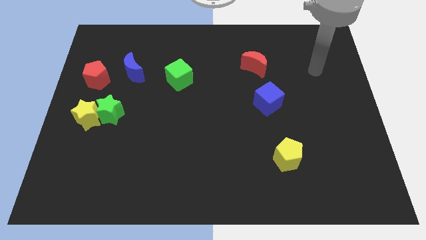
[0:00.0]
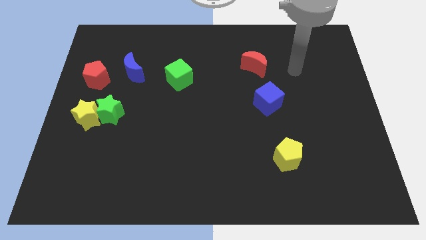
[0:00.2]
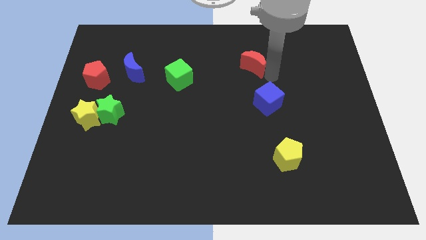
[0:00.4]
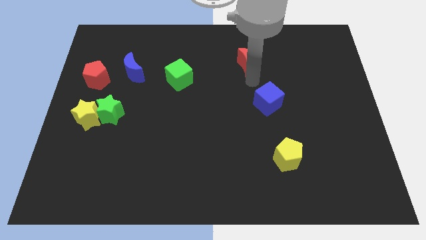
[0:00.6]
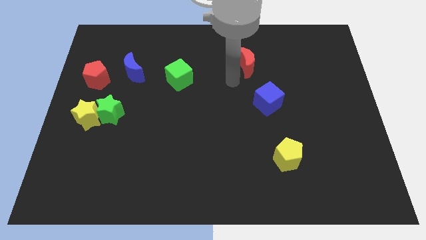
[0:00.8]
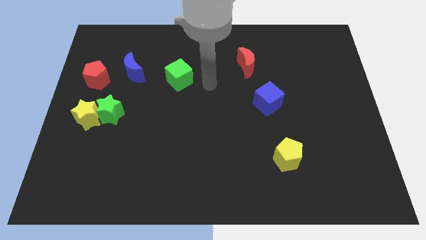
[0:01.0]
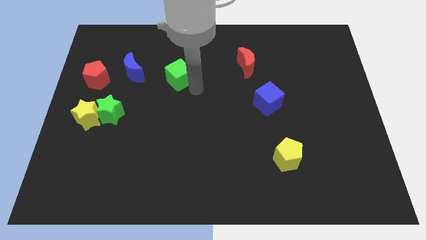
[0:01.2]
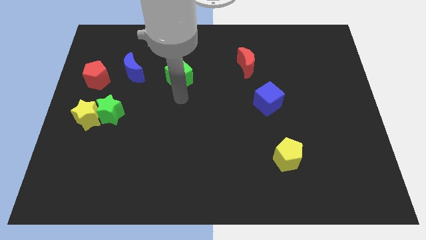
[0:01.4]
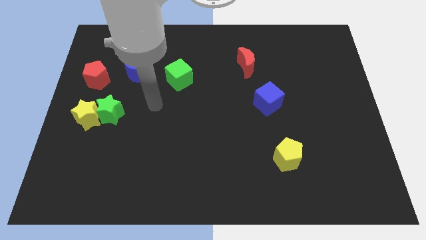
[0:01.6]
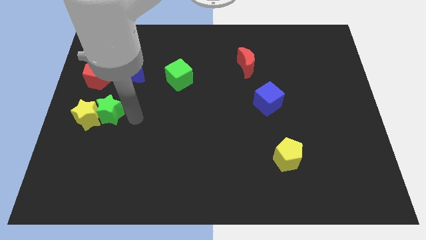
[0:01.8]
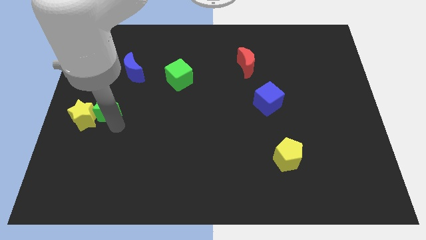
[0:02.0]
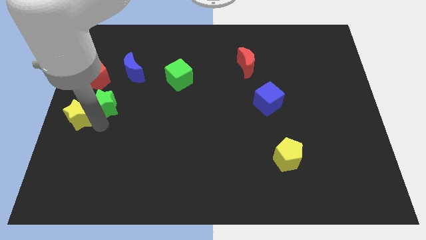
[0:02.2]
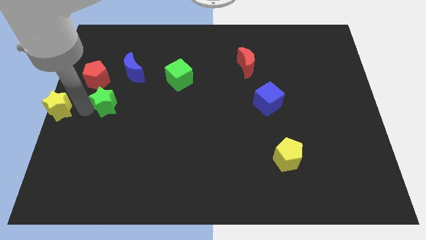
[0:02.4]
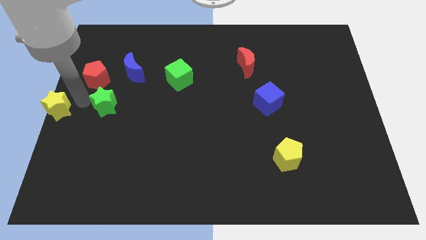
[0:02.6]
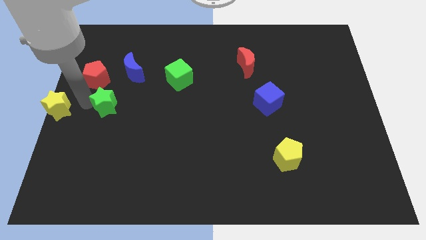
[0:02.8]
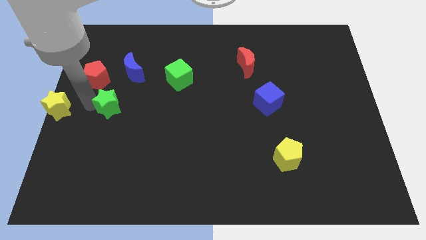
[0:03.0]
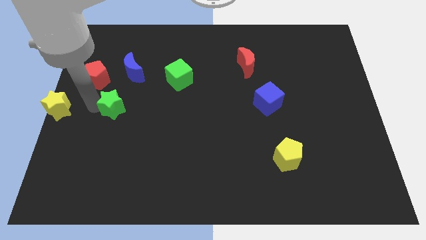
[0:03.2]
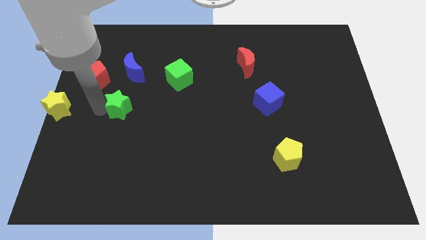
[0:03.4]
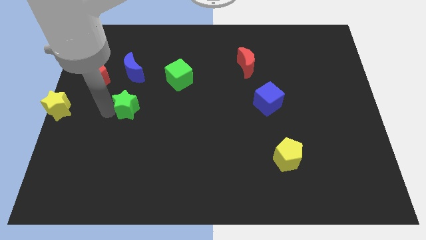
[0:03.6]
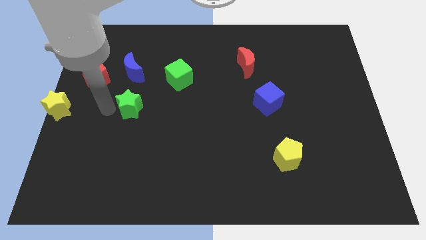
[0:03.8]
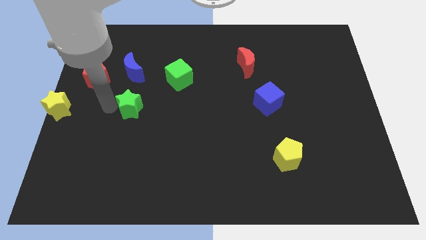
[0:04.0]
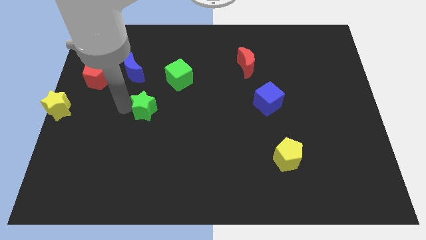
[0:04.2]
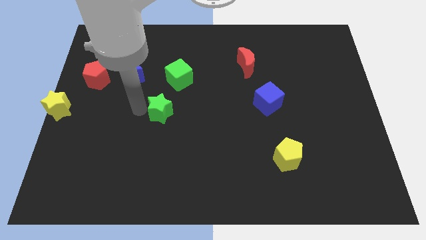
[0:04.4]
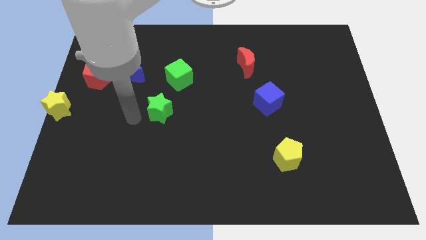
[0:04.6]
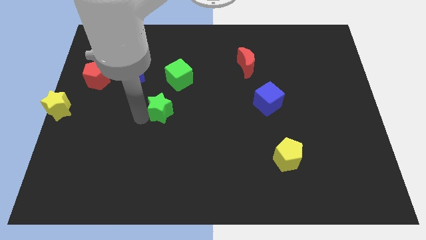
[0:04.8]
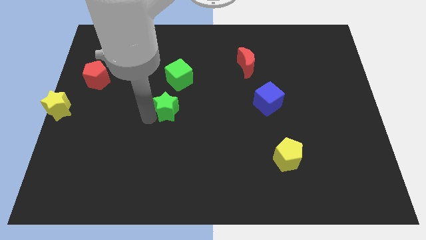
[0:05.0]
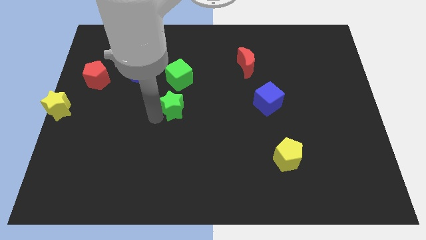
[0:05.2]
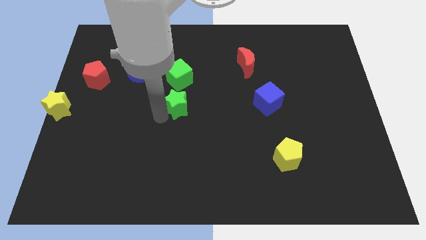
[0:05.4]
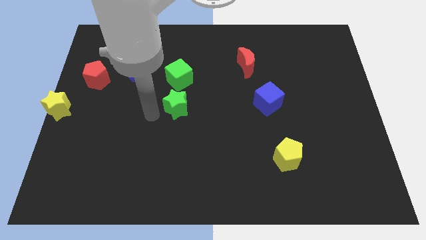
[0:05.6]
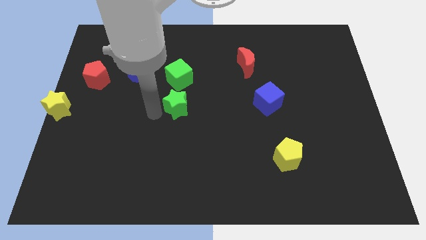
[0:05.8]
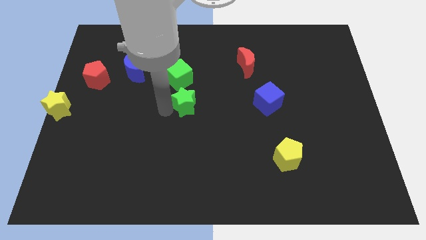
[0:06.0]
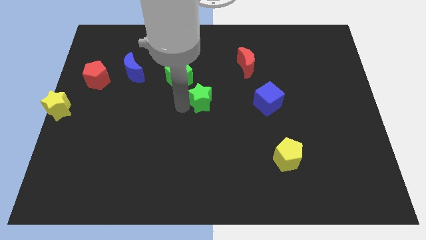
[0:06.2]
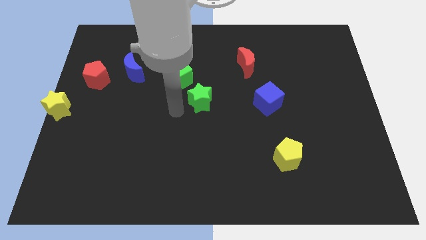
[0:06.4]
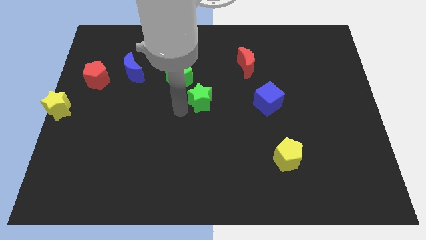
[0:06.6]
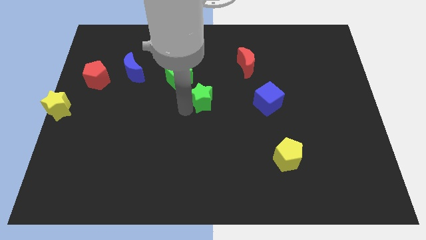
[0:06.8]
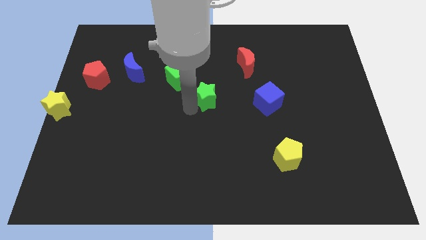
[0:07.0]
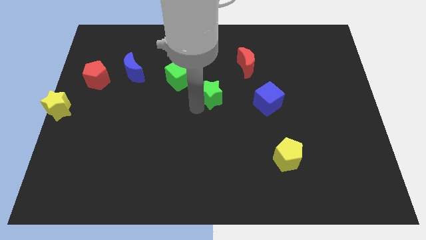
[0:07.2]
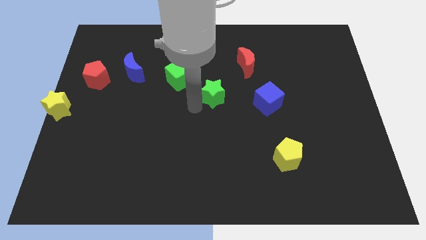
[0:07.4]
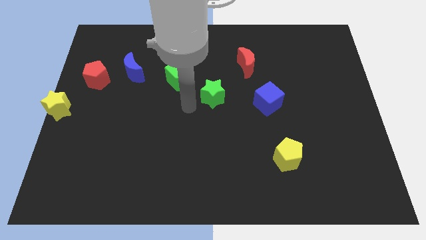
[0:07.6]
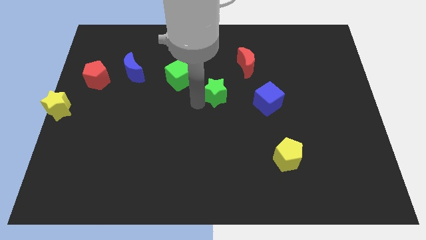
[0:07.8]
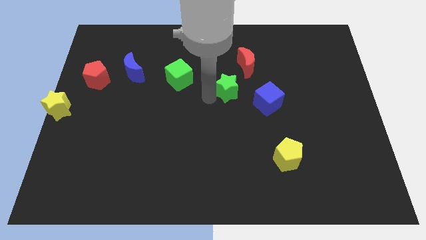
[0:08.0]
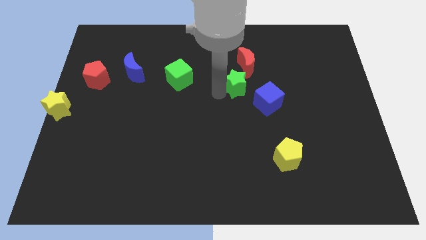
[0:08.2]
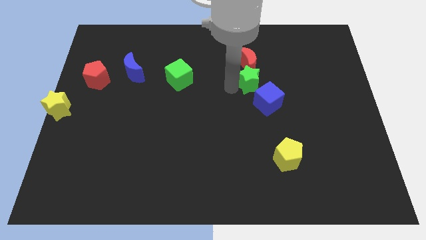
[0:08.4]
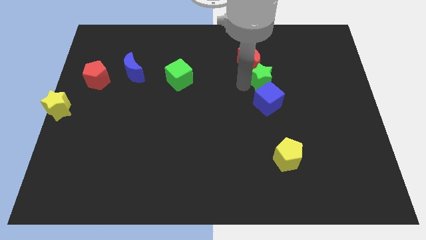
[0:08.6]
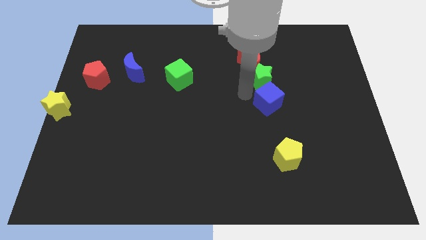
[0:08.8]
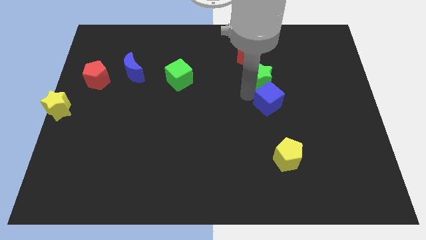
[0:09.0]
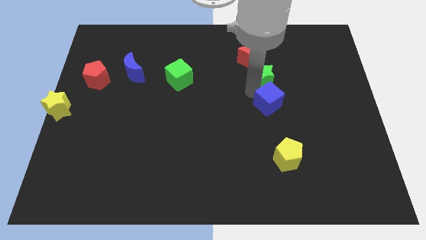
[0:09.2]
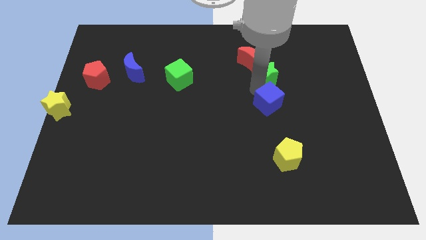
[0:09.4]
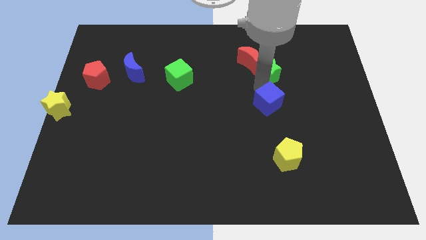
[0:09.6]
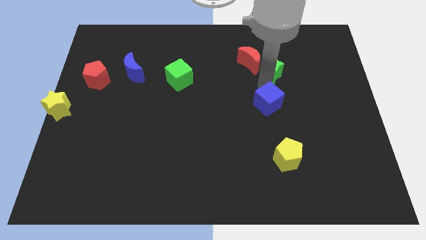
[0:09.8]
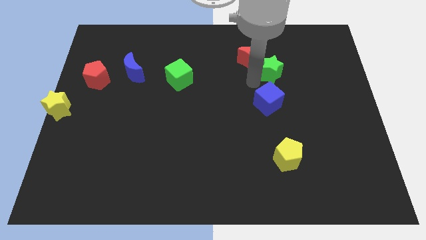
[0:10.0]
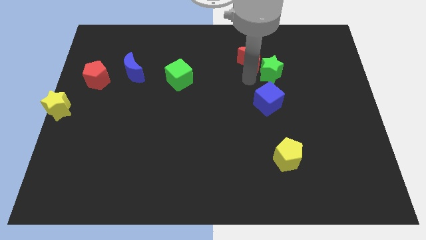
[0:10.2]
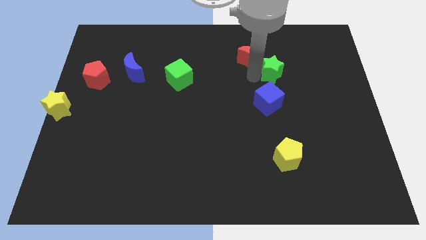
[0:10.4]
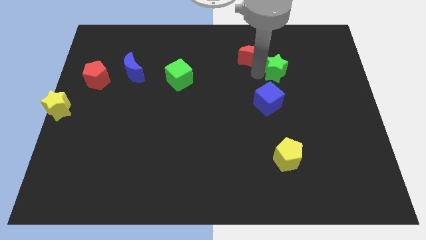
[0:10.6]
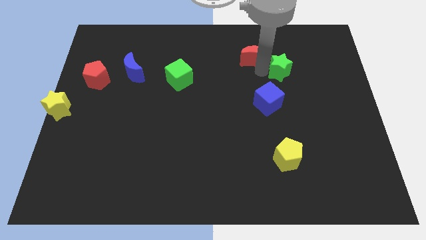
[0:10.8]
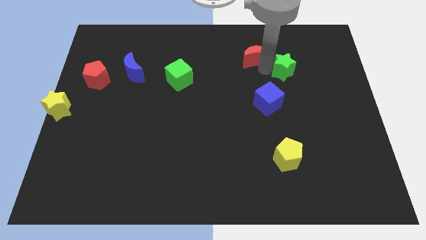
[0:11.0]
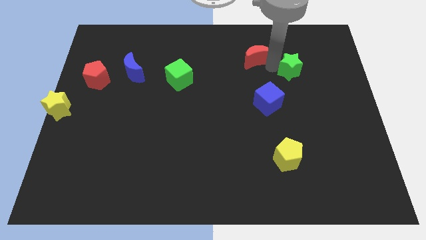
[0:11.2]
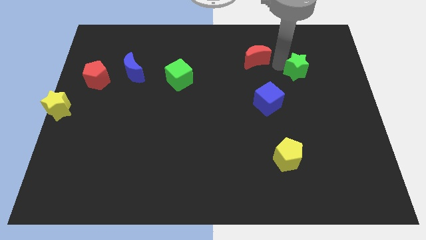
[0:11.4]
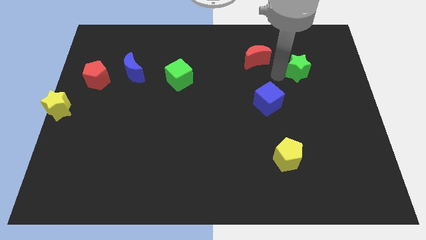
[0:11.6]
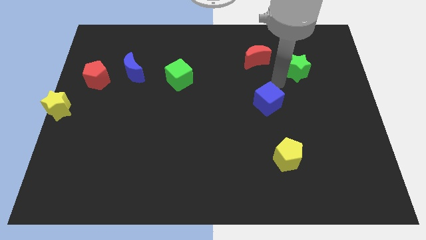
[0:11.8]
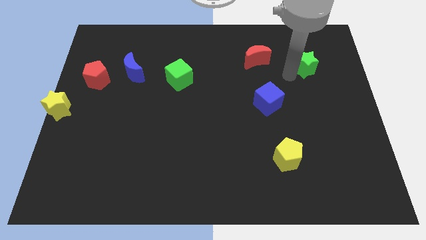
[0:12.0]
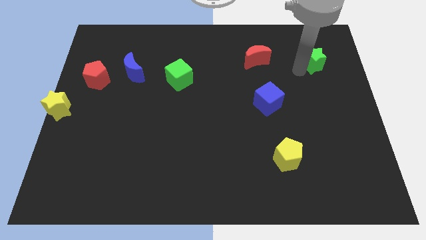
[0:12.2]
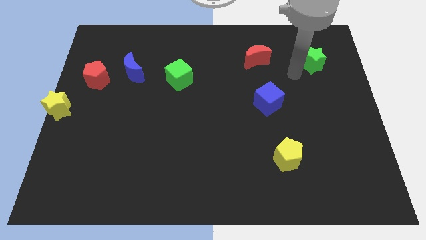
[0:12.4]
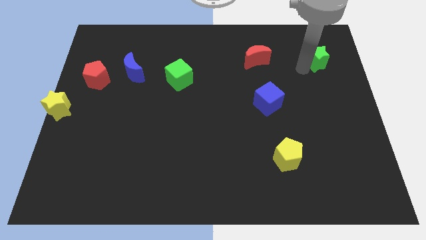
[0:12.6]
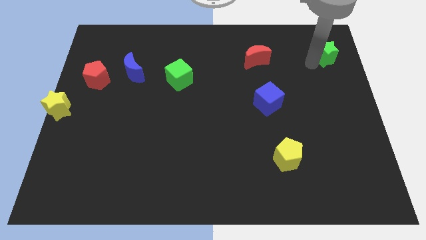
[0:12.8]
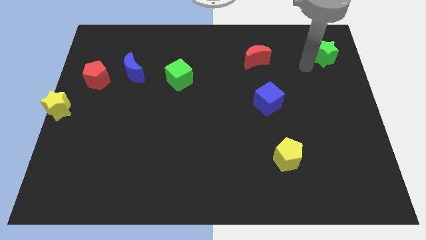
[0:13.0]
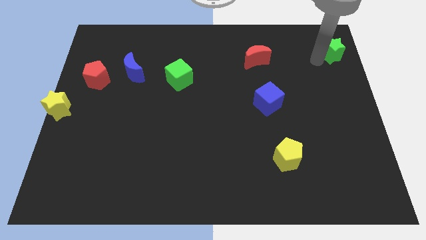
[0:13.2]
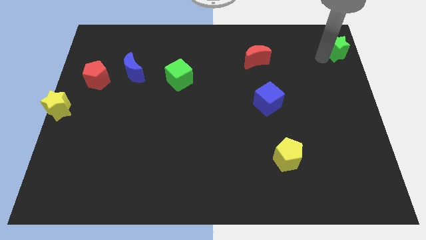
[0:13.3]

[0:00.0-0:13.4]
slide the green star to the top right

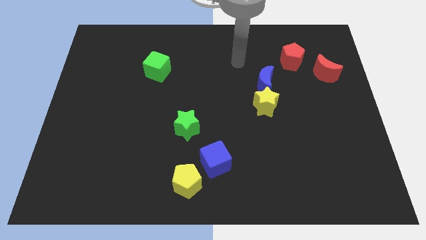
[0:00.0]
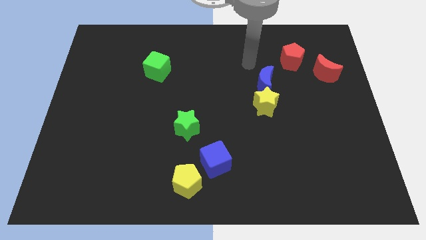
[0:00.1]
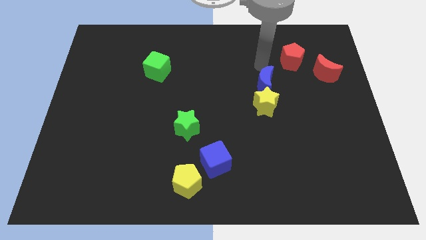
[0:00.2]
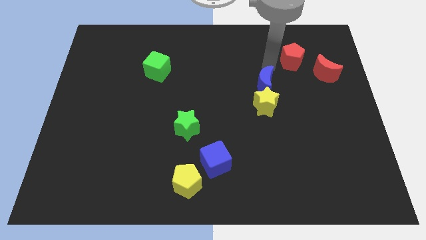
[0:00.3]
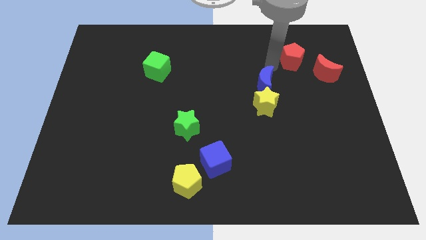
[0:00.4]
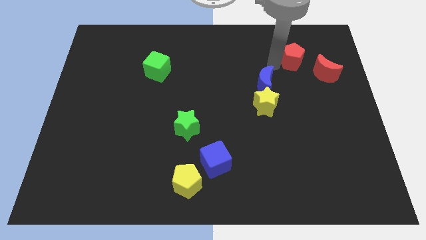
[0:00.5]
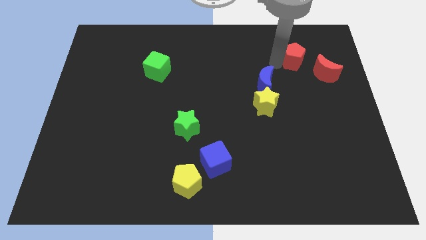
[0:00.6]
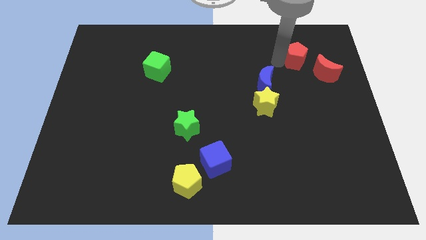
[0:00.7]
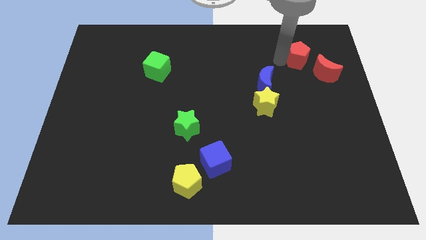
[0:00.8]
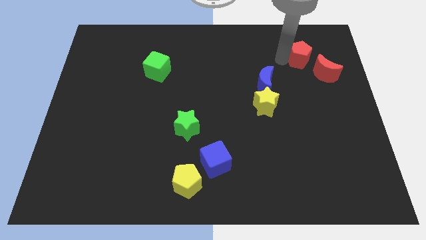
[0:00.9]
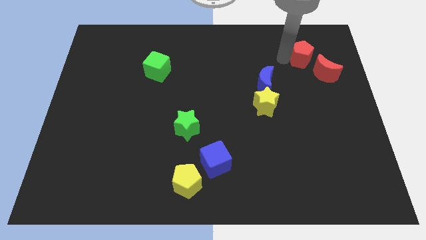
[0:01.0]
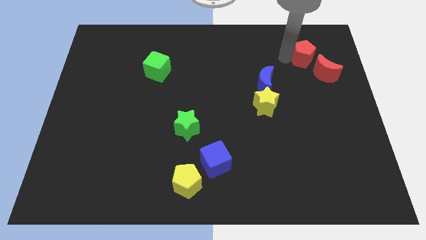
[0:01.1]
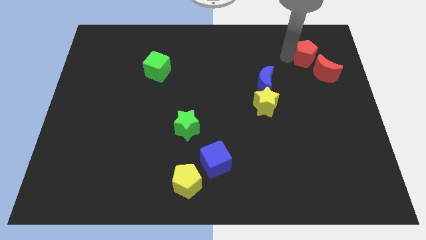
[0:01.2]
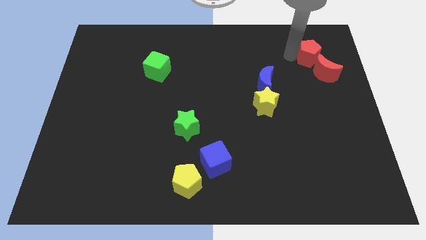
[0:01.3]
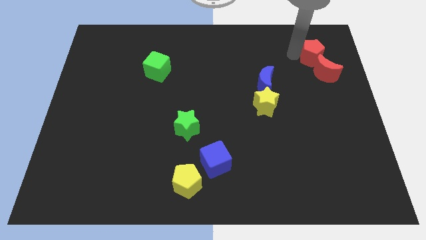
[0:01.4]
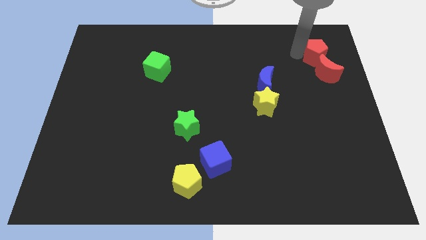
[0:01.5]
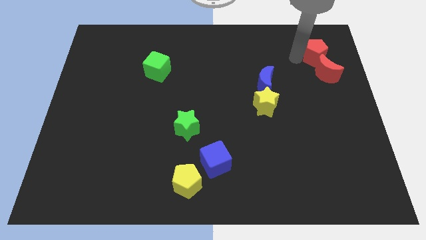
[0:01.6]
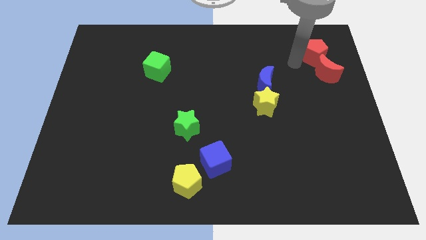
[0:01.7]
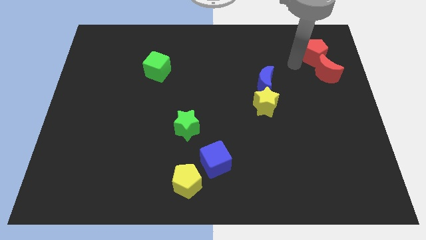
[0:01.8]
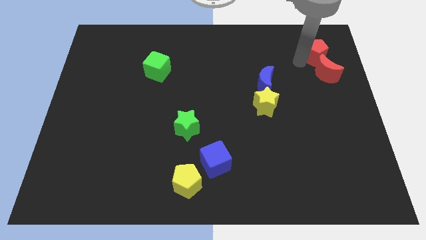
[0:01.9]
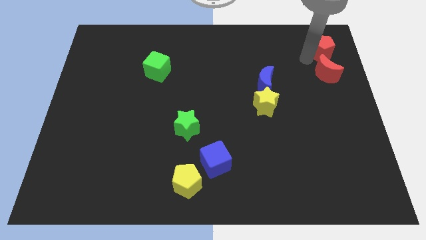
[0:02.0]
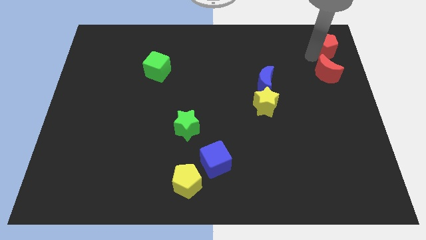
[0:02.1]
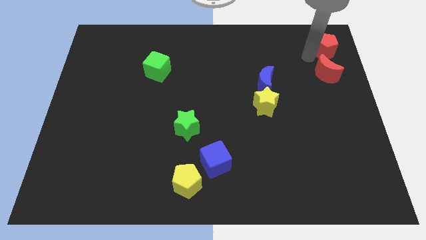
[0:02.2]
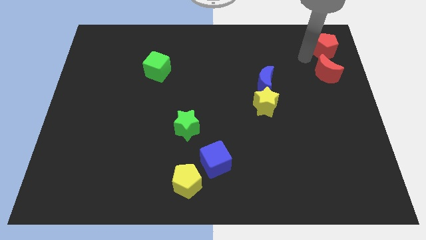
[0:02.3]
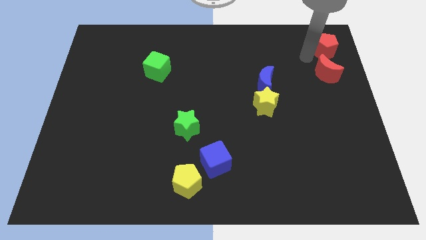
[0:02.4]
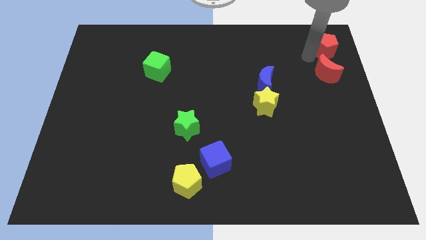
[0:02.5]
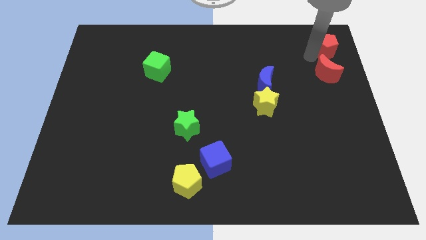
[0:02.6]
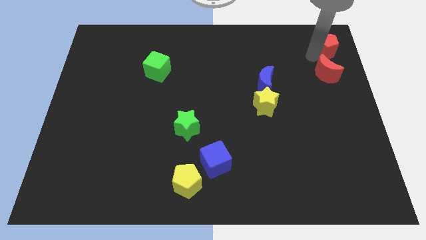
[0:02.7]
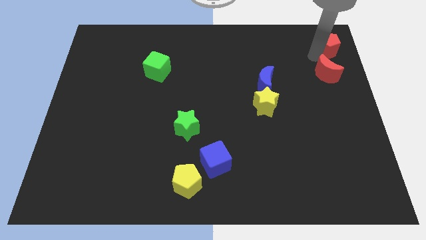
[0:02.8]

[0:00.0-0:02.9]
put the red pentagon to the top right corner
